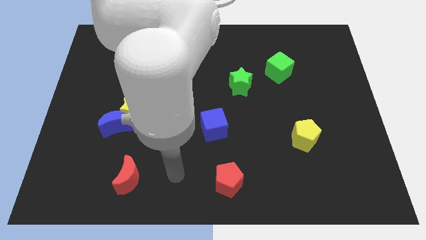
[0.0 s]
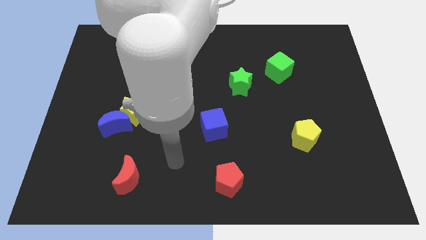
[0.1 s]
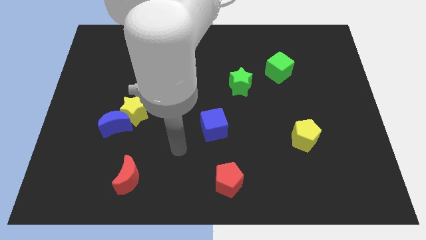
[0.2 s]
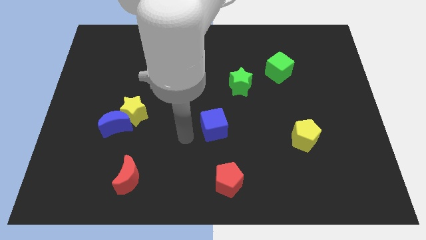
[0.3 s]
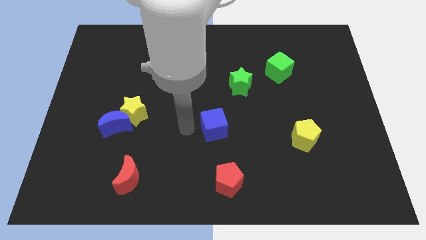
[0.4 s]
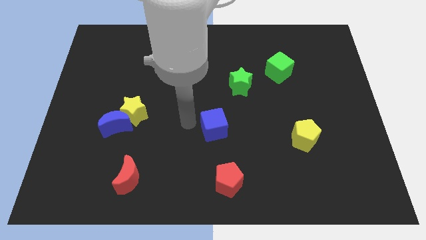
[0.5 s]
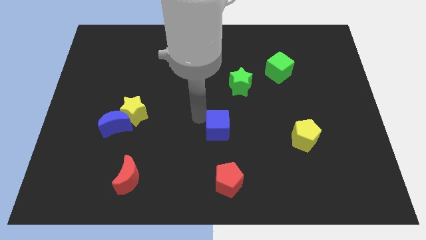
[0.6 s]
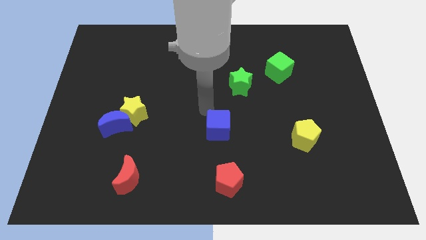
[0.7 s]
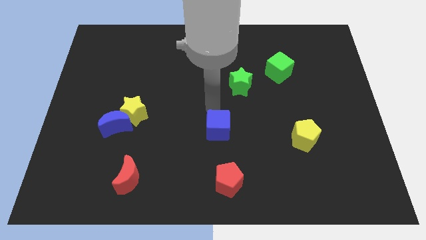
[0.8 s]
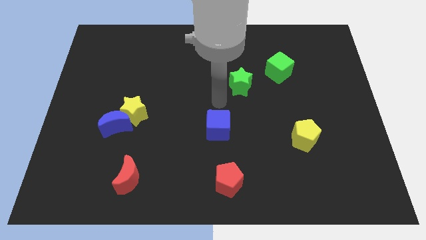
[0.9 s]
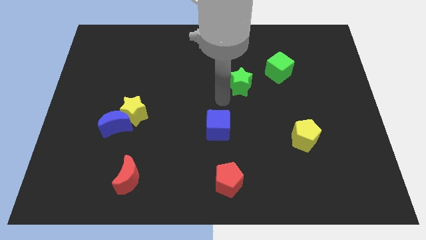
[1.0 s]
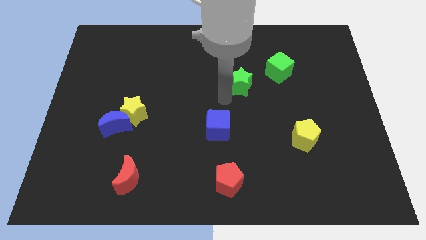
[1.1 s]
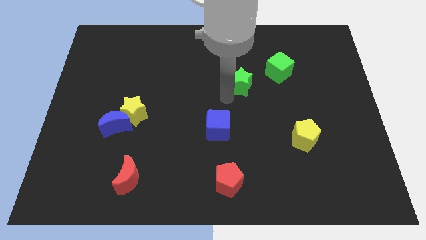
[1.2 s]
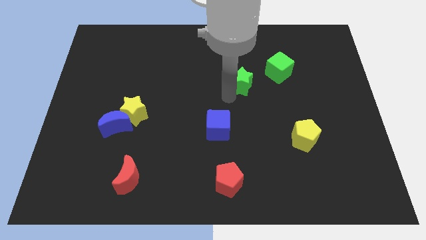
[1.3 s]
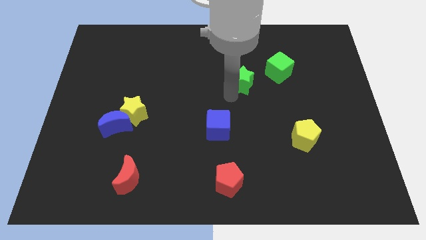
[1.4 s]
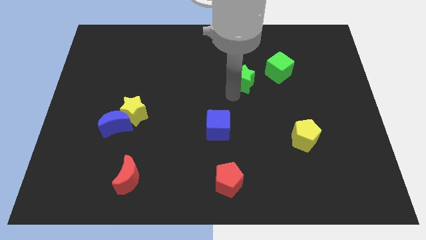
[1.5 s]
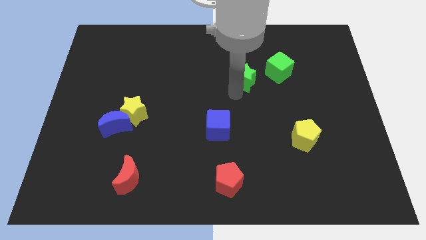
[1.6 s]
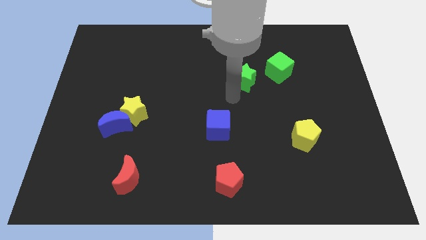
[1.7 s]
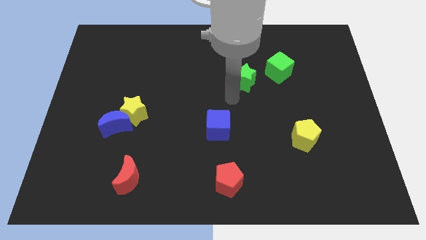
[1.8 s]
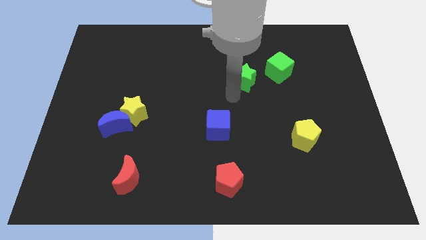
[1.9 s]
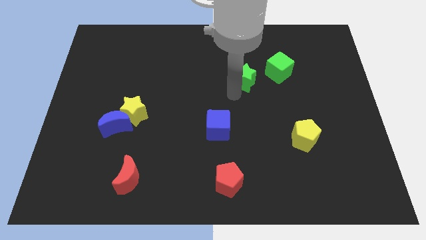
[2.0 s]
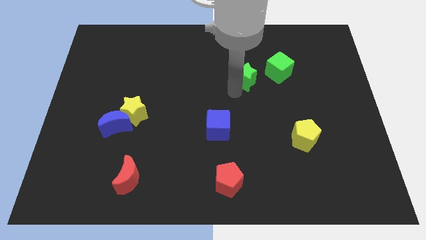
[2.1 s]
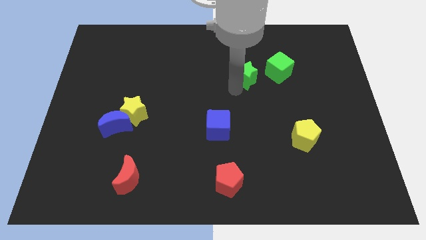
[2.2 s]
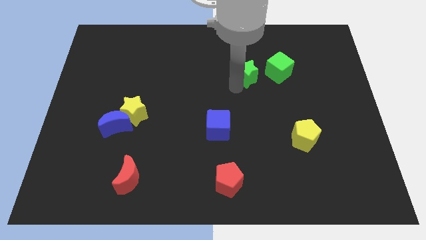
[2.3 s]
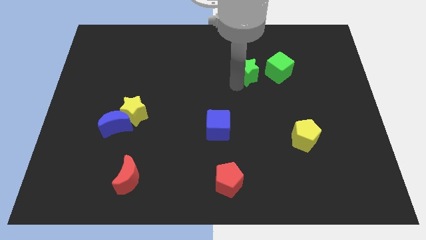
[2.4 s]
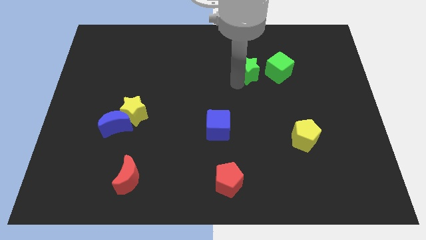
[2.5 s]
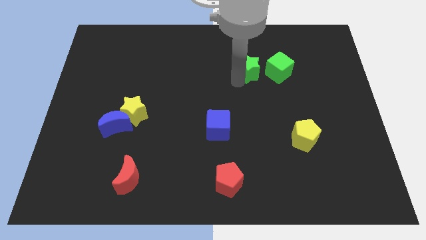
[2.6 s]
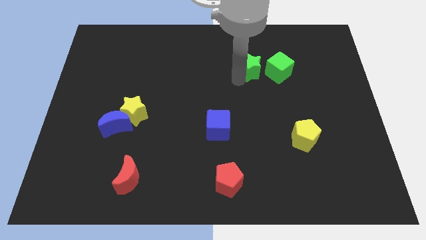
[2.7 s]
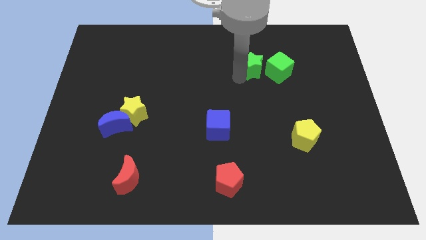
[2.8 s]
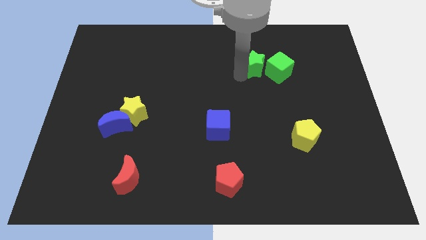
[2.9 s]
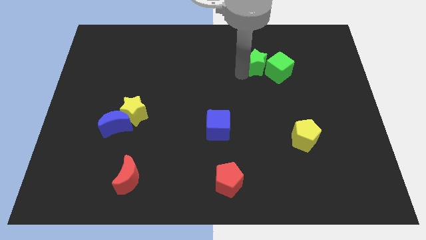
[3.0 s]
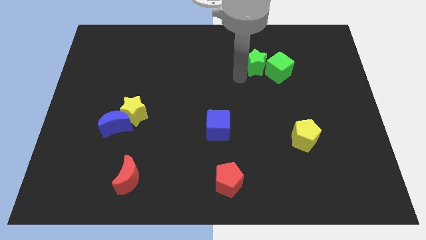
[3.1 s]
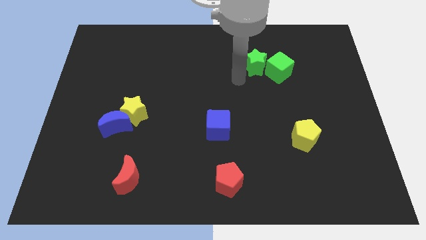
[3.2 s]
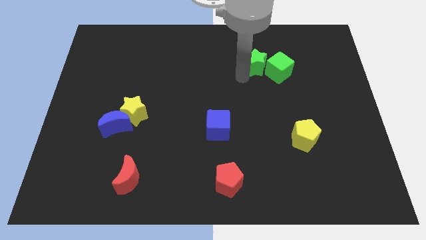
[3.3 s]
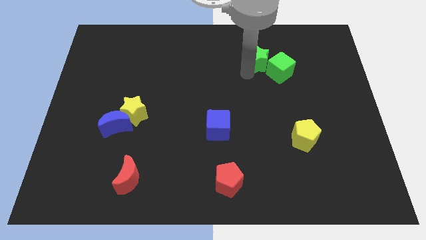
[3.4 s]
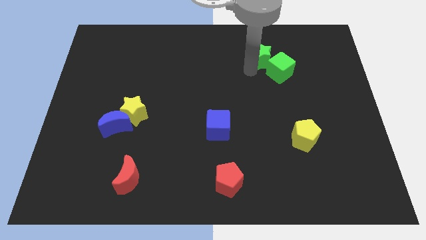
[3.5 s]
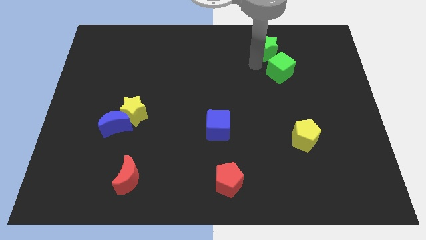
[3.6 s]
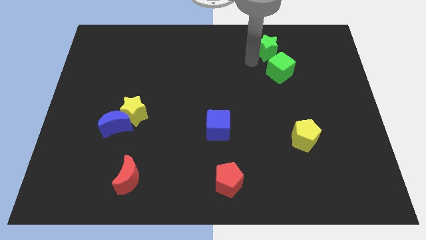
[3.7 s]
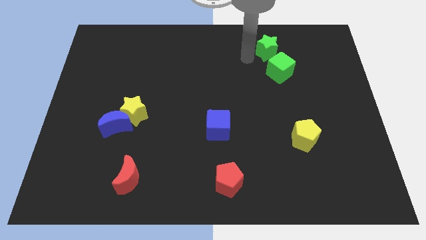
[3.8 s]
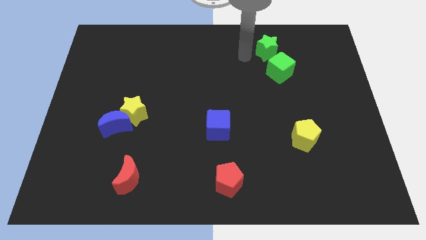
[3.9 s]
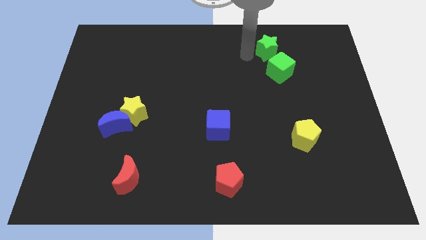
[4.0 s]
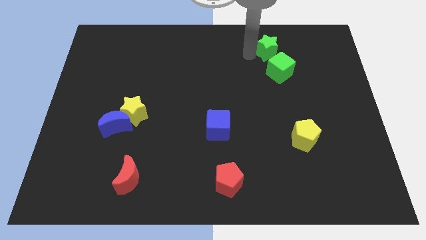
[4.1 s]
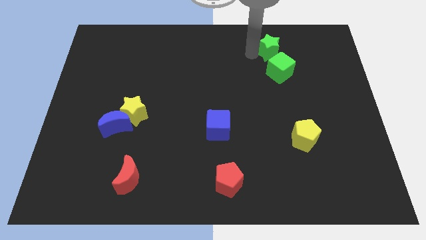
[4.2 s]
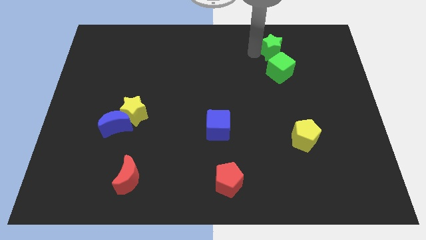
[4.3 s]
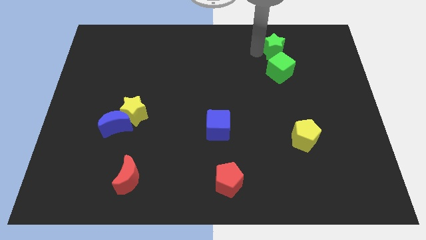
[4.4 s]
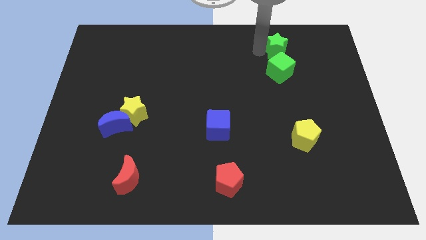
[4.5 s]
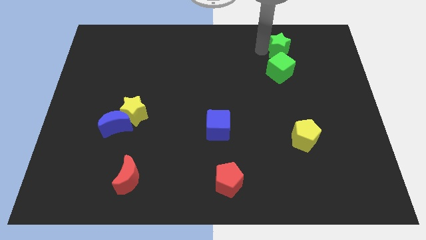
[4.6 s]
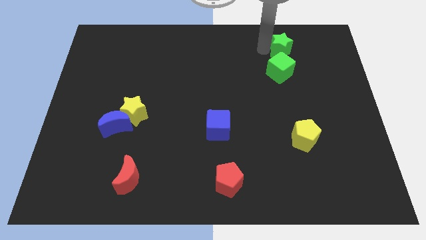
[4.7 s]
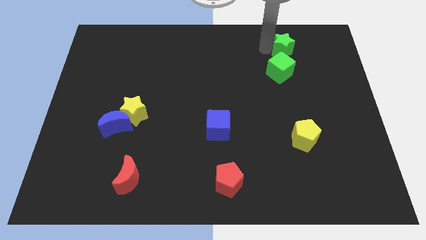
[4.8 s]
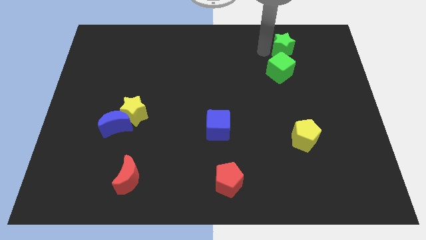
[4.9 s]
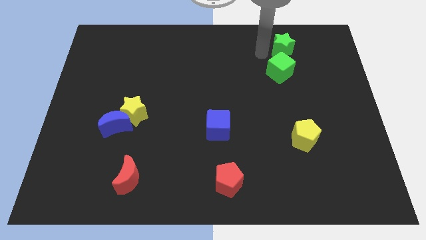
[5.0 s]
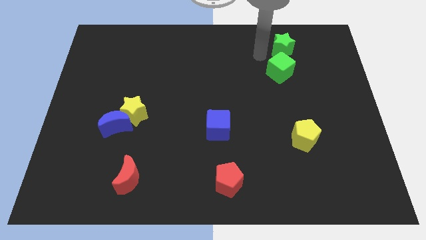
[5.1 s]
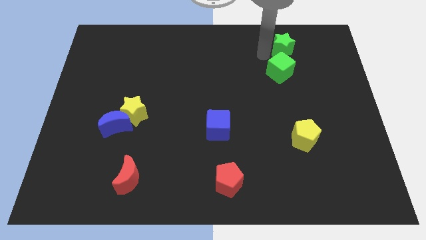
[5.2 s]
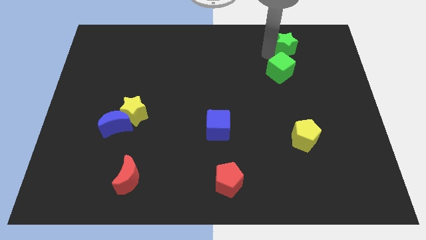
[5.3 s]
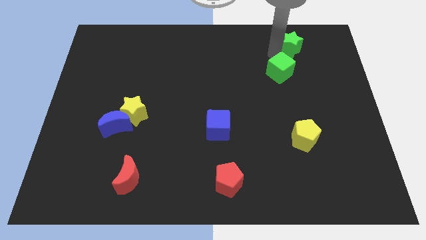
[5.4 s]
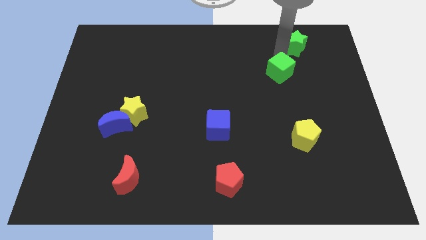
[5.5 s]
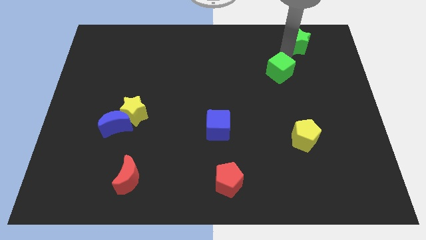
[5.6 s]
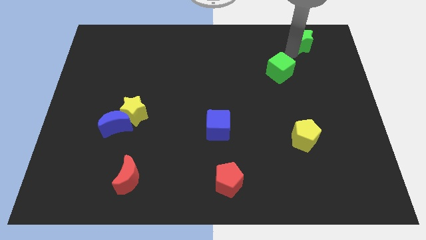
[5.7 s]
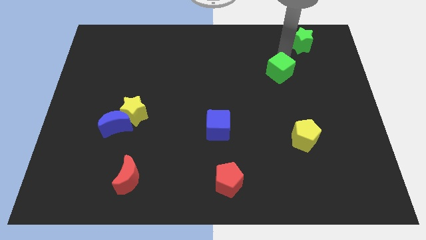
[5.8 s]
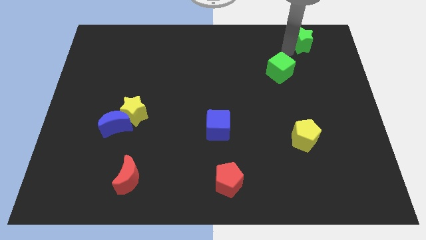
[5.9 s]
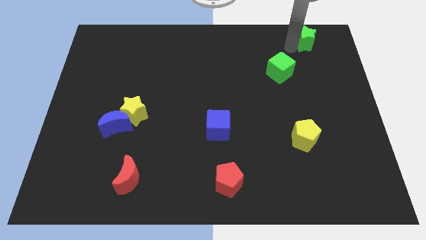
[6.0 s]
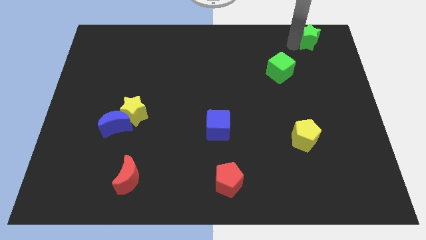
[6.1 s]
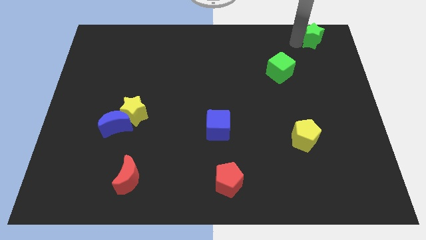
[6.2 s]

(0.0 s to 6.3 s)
push the green star to the top right

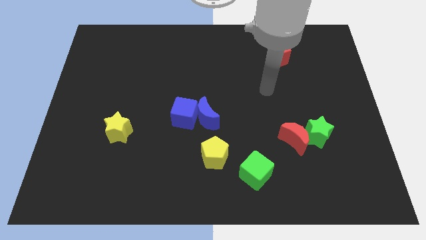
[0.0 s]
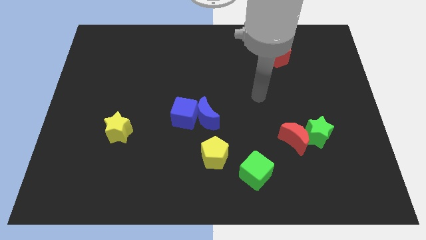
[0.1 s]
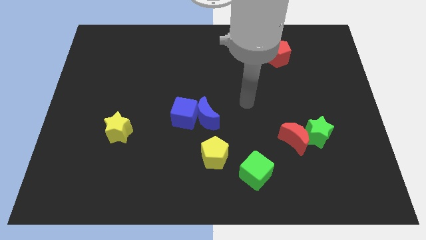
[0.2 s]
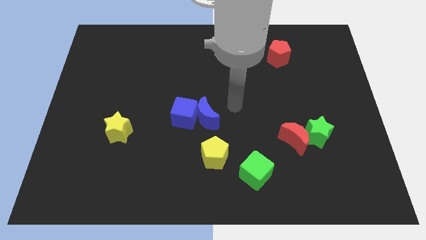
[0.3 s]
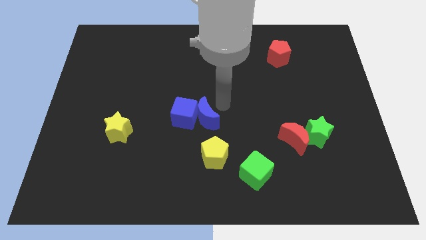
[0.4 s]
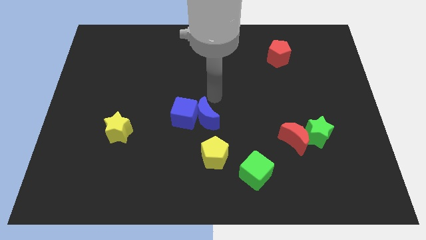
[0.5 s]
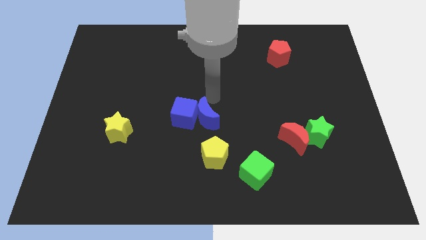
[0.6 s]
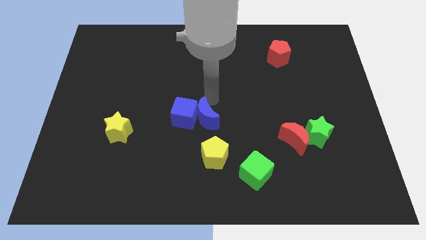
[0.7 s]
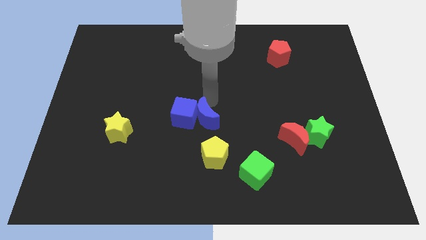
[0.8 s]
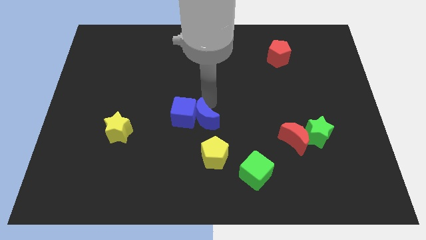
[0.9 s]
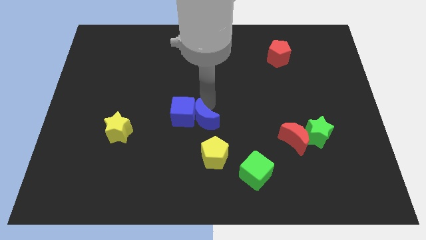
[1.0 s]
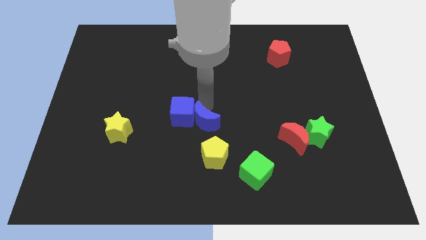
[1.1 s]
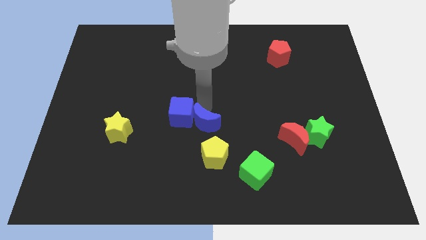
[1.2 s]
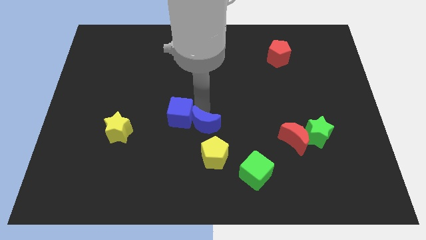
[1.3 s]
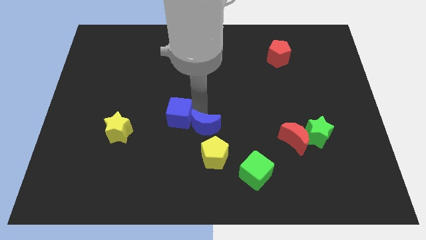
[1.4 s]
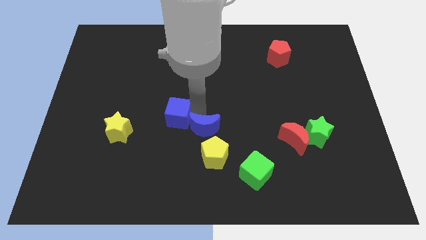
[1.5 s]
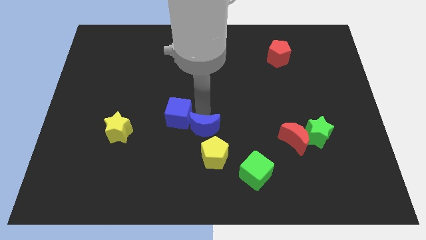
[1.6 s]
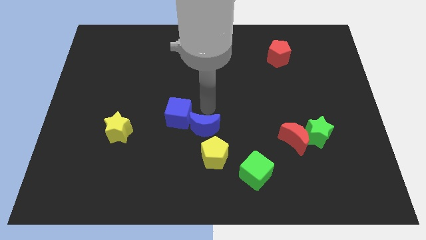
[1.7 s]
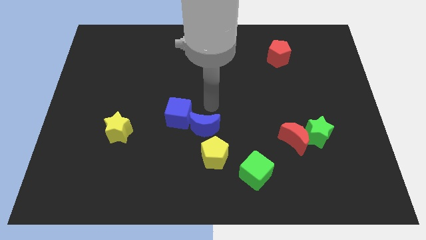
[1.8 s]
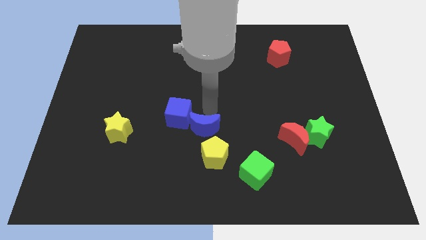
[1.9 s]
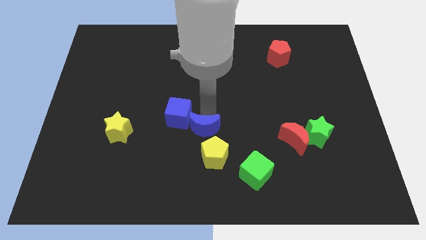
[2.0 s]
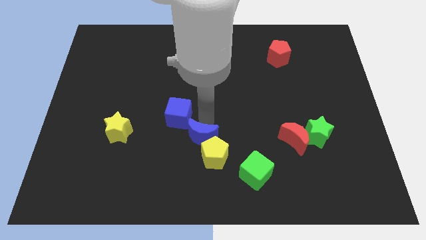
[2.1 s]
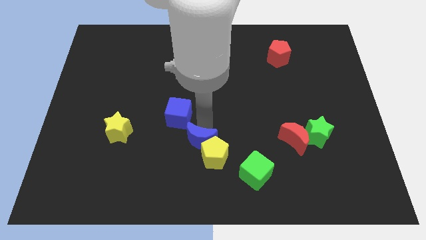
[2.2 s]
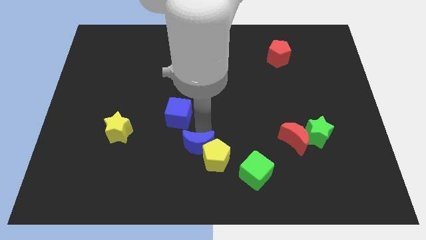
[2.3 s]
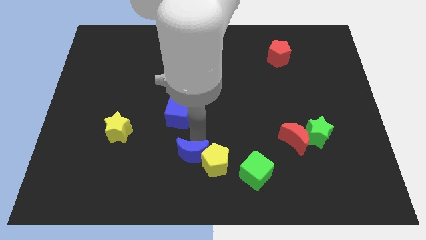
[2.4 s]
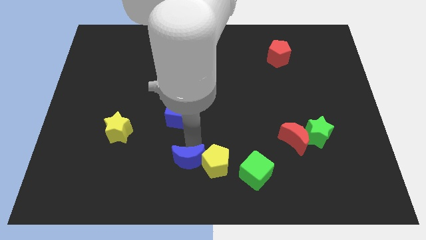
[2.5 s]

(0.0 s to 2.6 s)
push the blue moon to the bottom
